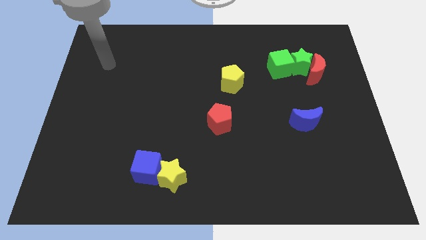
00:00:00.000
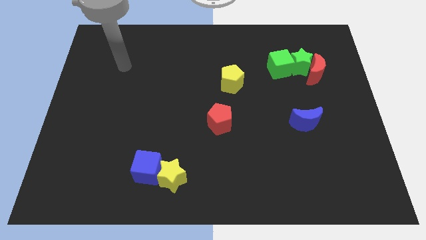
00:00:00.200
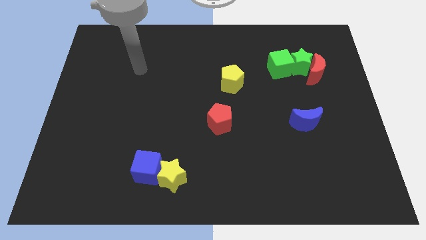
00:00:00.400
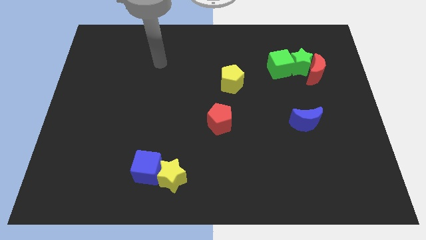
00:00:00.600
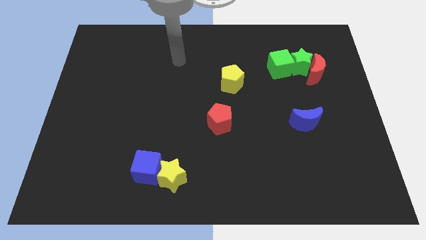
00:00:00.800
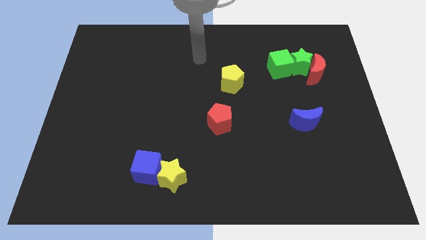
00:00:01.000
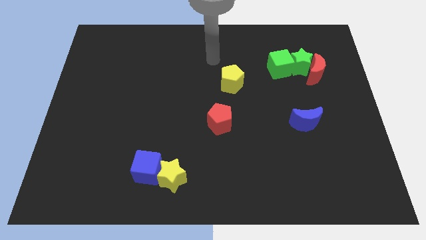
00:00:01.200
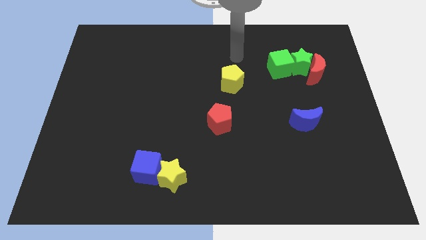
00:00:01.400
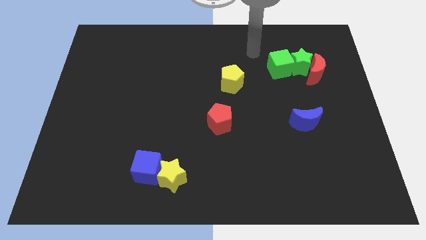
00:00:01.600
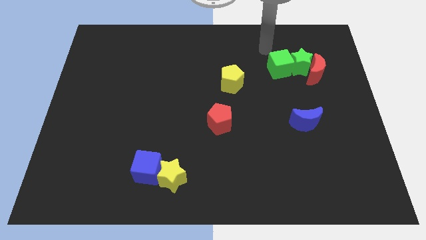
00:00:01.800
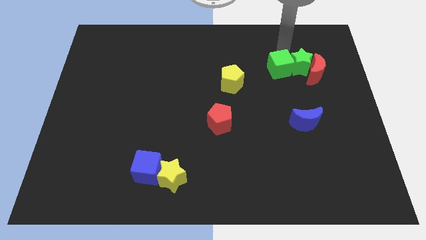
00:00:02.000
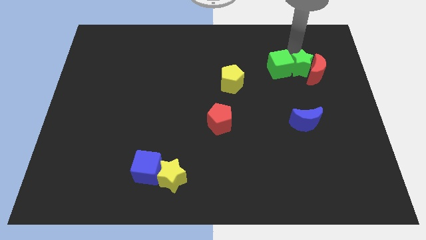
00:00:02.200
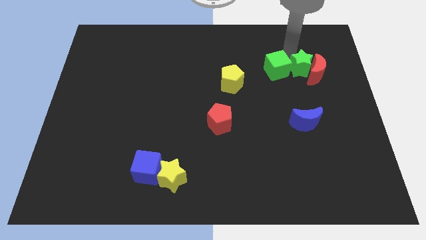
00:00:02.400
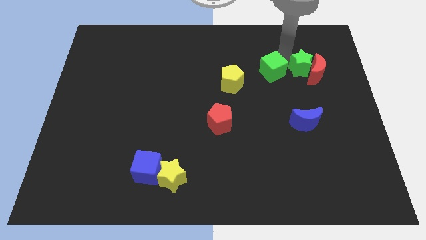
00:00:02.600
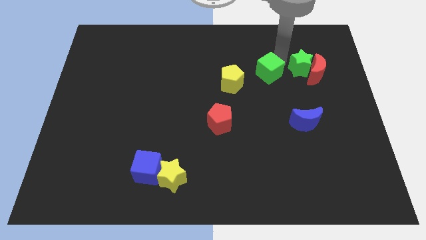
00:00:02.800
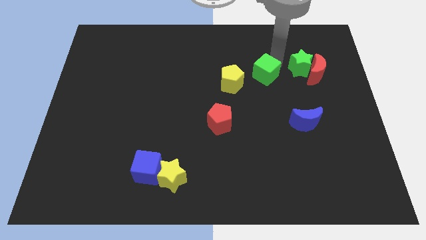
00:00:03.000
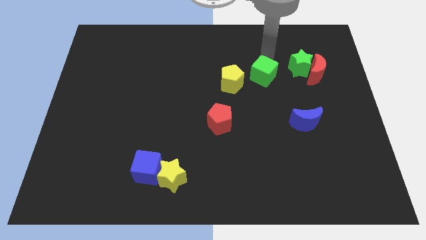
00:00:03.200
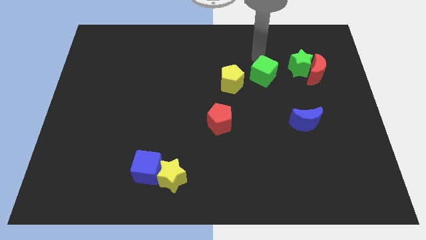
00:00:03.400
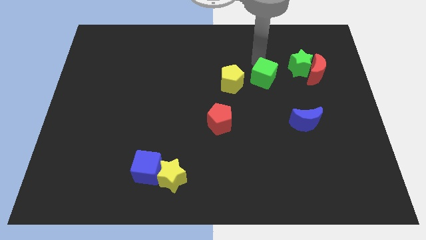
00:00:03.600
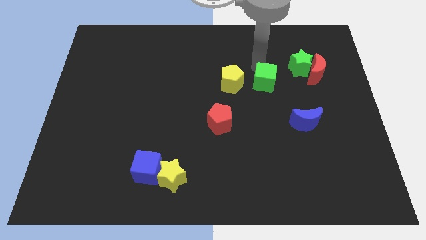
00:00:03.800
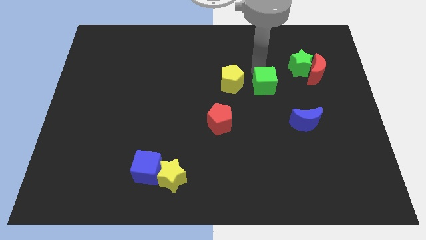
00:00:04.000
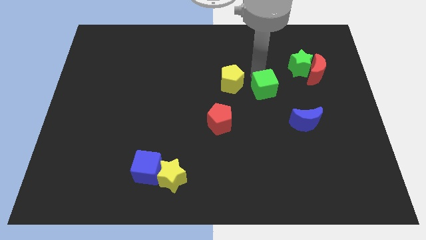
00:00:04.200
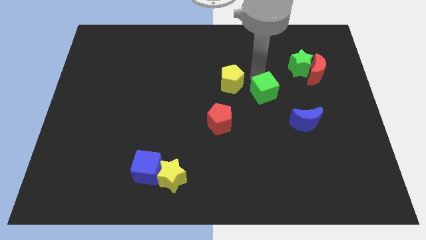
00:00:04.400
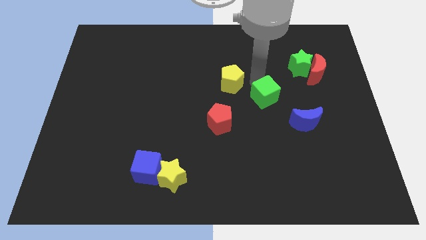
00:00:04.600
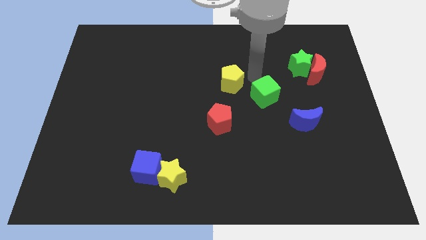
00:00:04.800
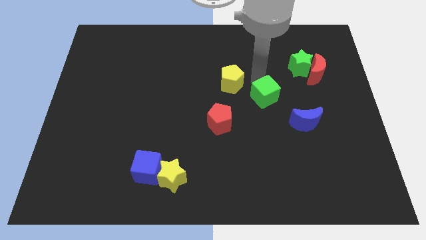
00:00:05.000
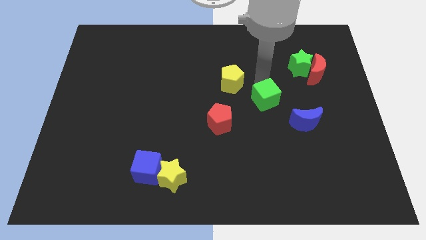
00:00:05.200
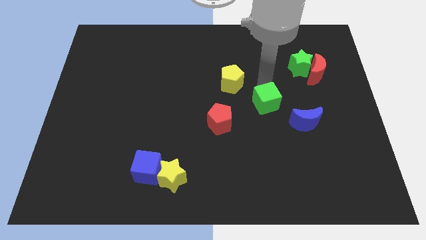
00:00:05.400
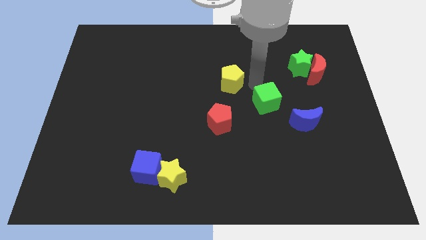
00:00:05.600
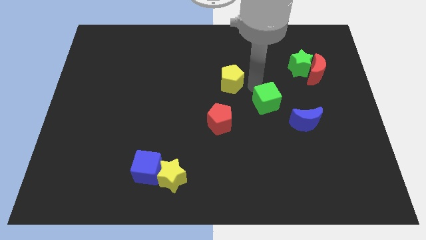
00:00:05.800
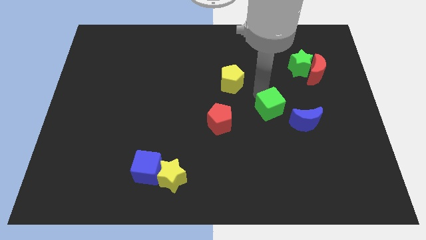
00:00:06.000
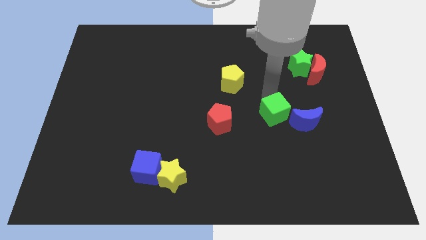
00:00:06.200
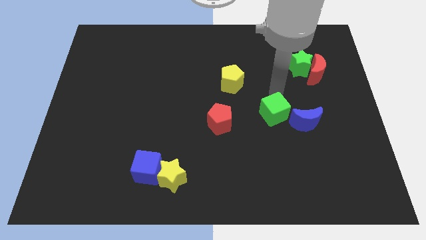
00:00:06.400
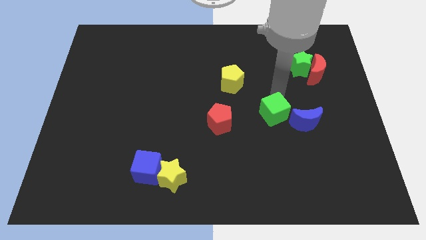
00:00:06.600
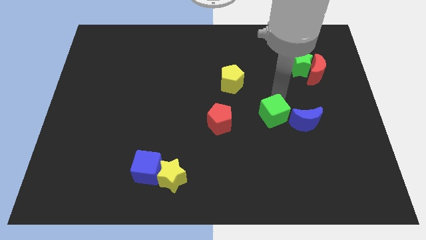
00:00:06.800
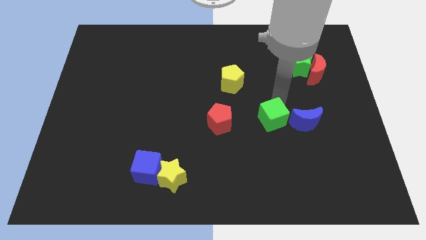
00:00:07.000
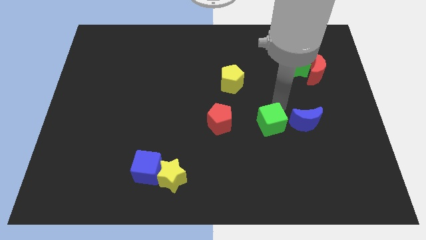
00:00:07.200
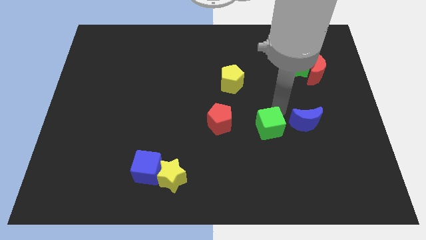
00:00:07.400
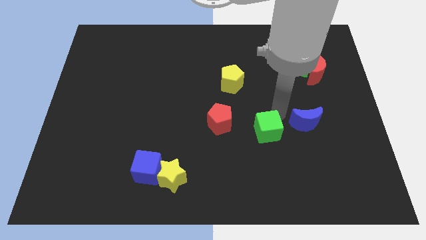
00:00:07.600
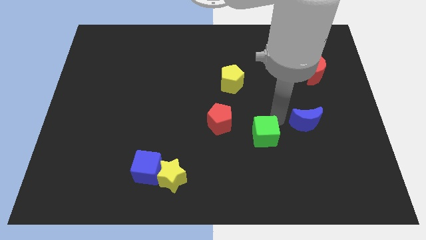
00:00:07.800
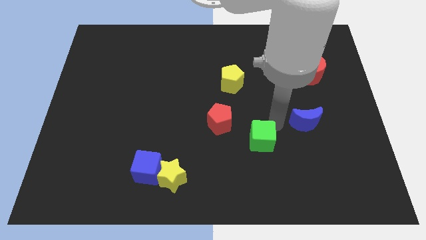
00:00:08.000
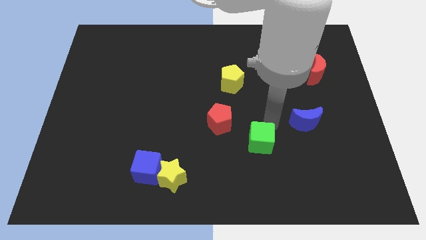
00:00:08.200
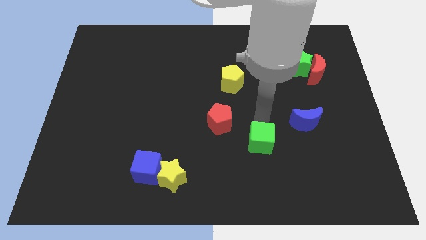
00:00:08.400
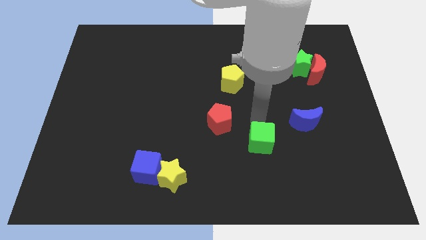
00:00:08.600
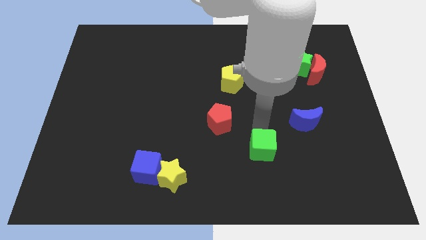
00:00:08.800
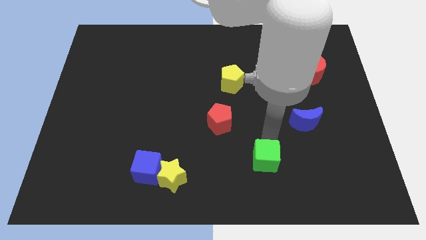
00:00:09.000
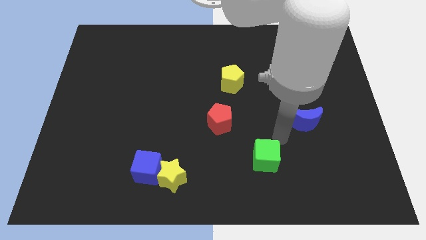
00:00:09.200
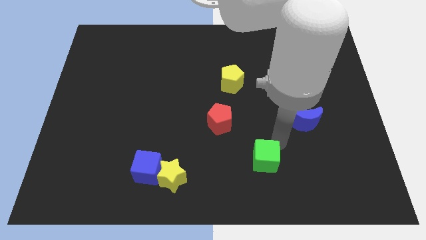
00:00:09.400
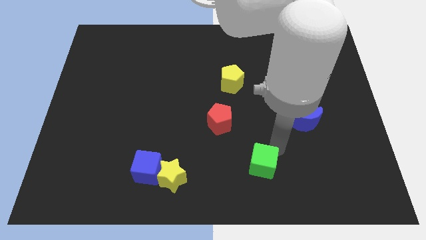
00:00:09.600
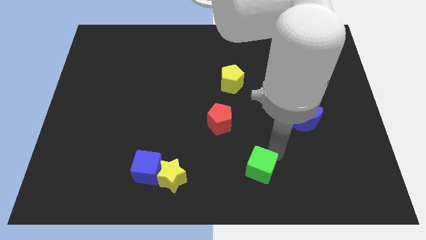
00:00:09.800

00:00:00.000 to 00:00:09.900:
slide the green cube to the bottom side

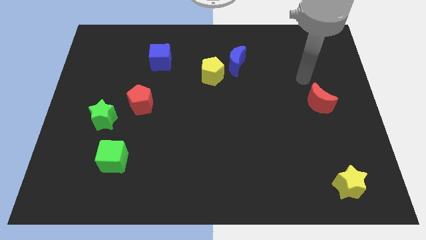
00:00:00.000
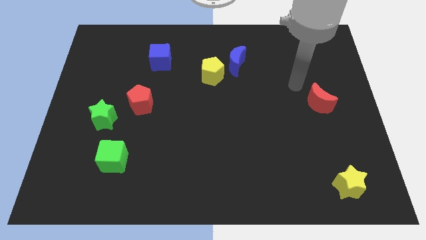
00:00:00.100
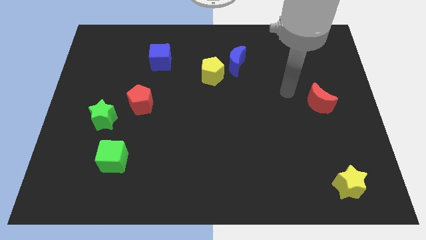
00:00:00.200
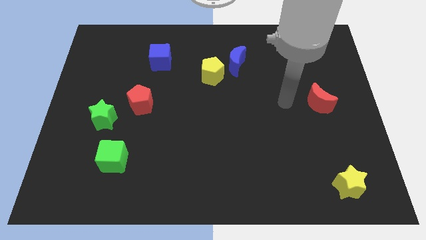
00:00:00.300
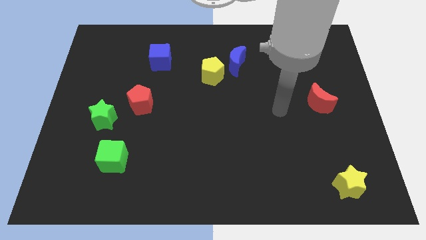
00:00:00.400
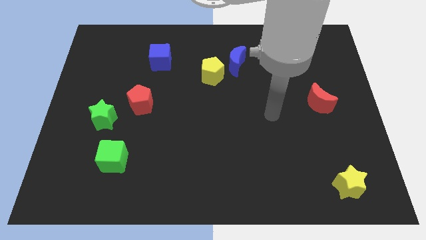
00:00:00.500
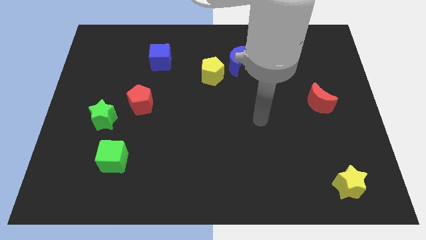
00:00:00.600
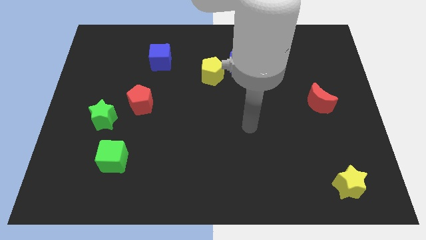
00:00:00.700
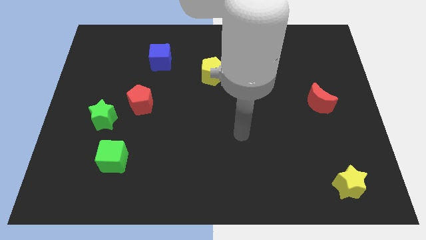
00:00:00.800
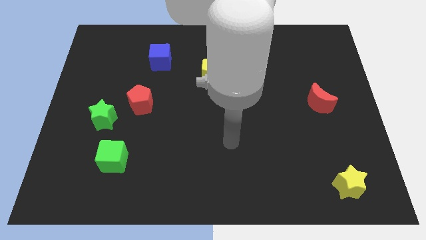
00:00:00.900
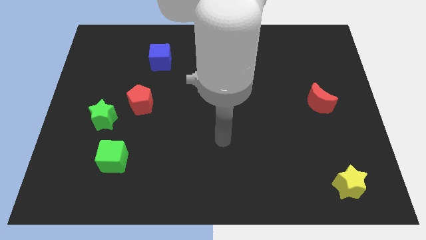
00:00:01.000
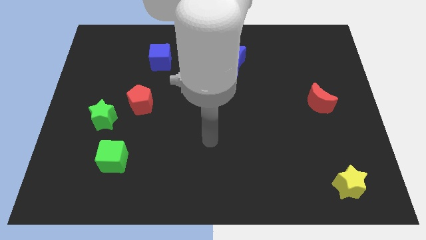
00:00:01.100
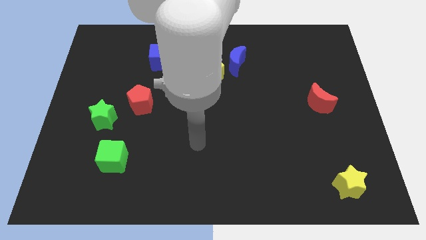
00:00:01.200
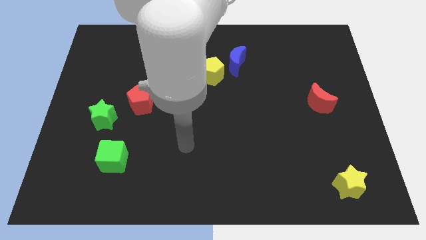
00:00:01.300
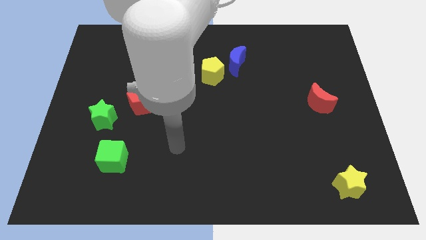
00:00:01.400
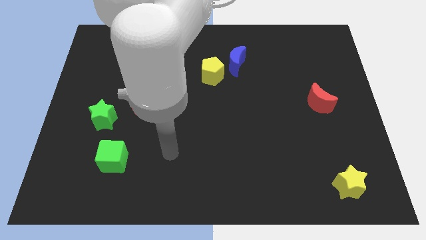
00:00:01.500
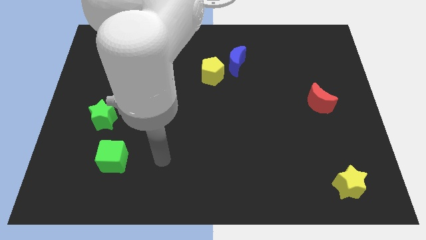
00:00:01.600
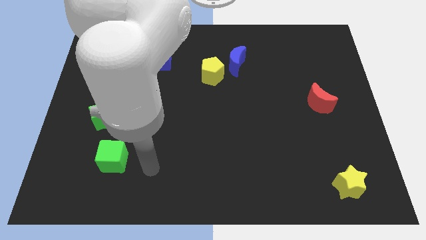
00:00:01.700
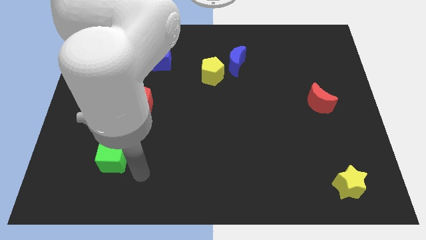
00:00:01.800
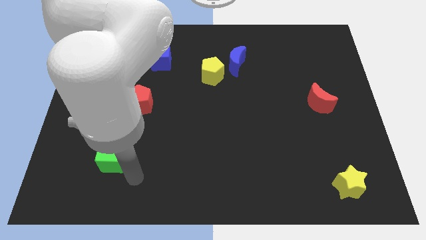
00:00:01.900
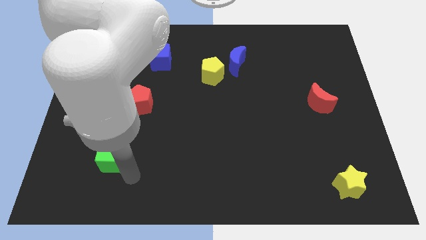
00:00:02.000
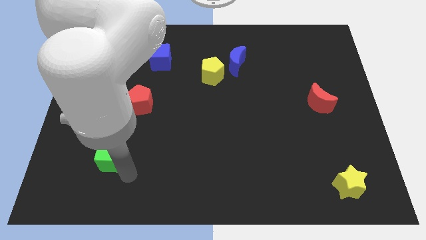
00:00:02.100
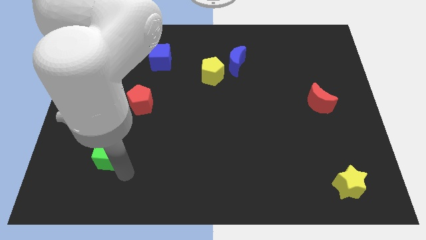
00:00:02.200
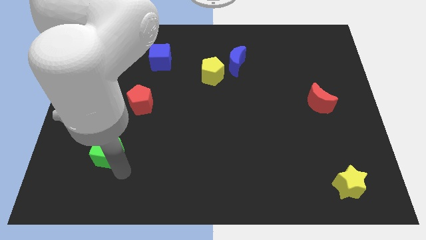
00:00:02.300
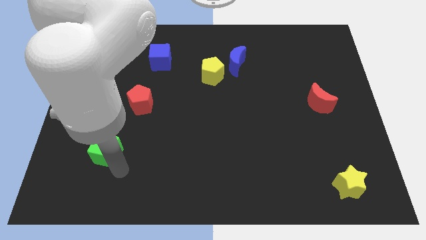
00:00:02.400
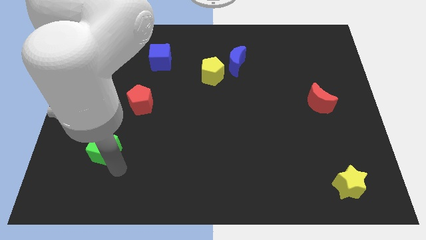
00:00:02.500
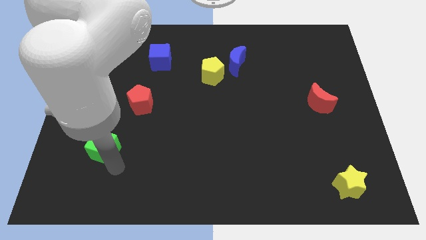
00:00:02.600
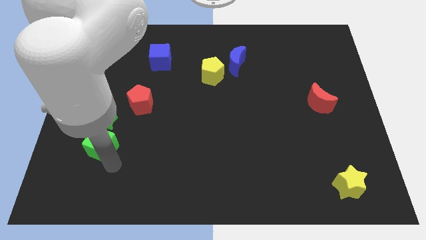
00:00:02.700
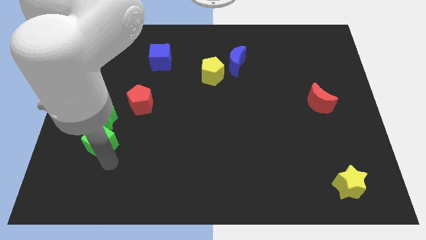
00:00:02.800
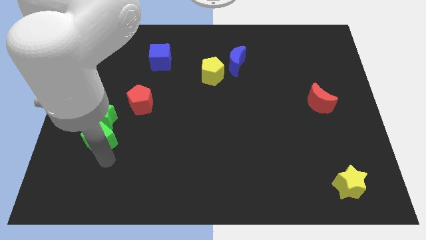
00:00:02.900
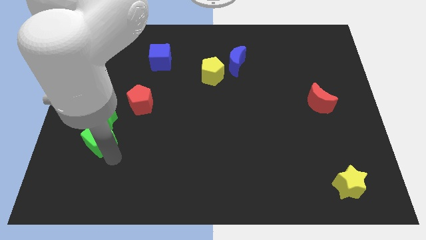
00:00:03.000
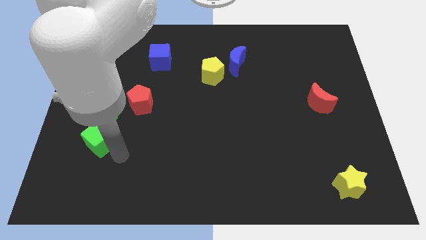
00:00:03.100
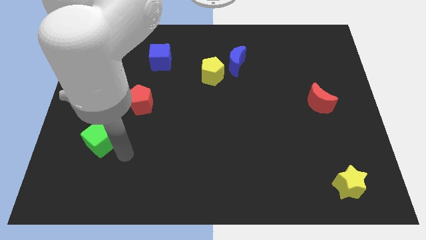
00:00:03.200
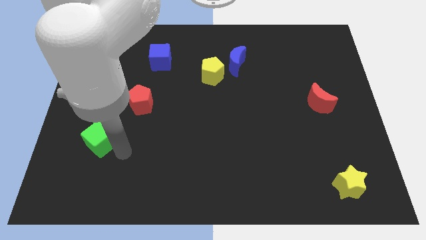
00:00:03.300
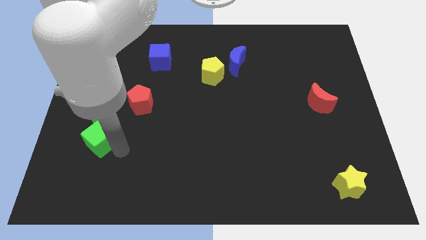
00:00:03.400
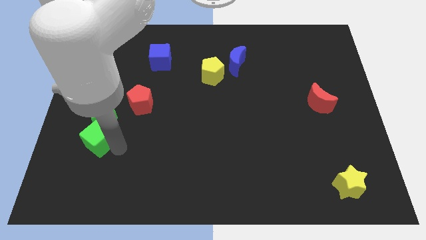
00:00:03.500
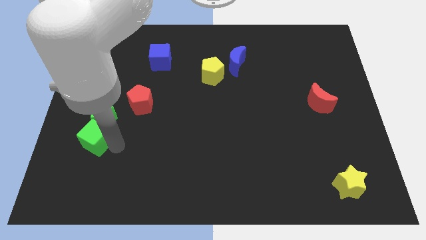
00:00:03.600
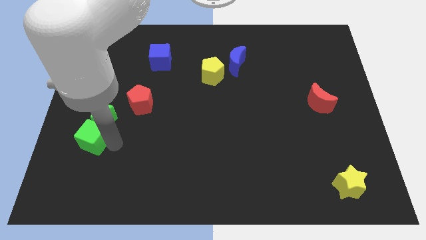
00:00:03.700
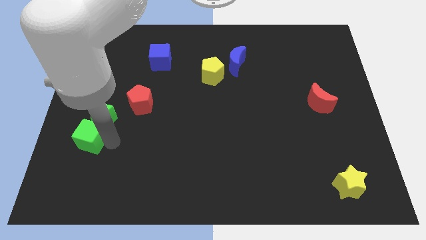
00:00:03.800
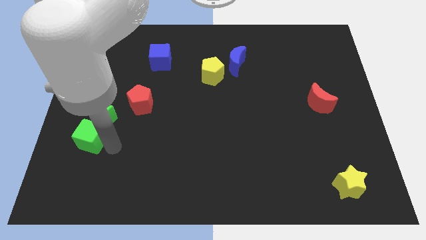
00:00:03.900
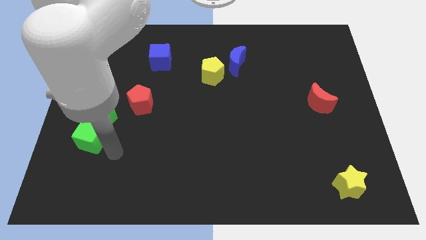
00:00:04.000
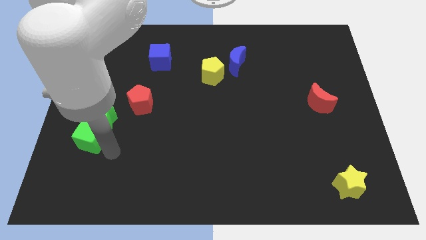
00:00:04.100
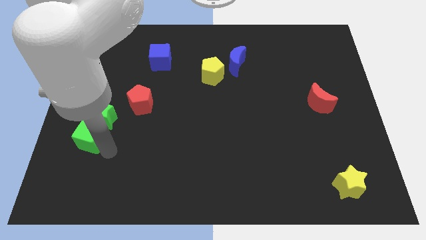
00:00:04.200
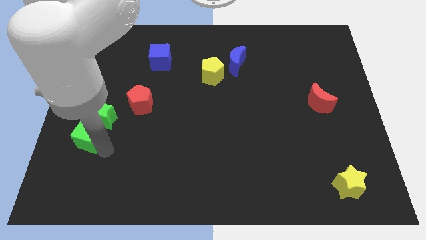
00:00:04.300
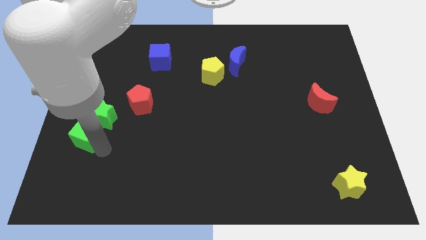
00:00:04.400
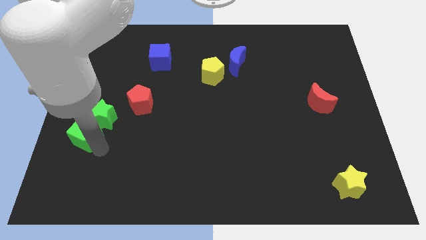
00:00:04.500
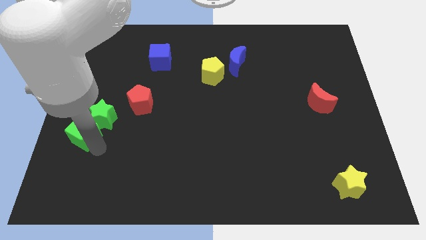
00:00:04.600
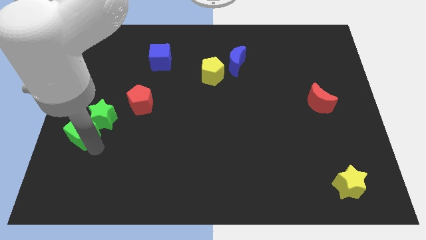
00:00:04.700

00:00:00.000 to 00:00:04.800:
move the green cube to the center left
